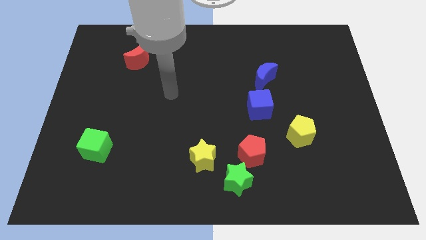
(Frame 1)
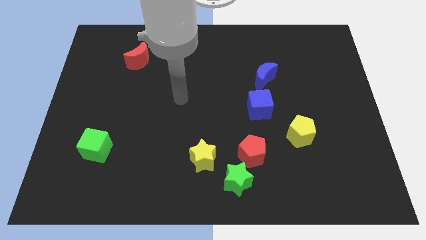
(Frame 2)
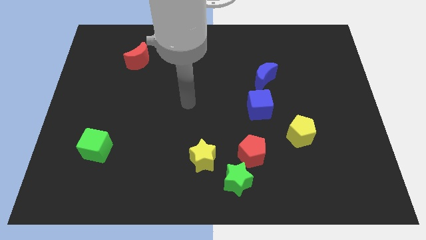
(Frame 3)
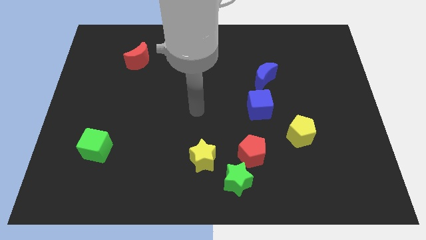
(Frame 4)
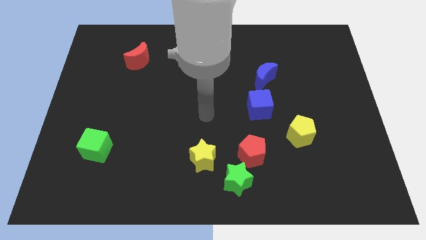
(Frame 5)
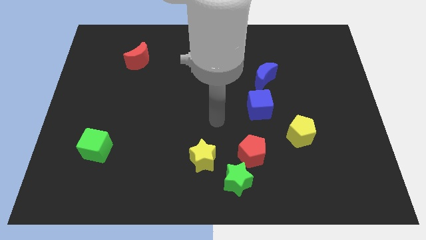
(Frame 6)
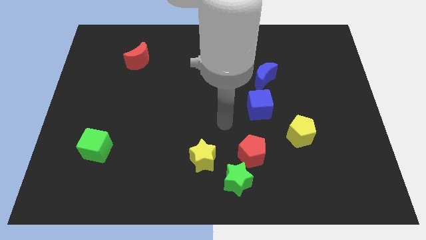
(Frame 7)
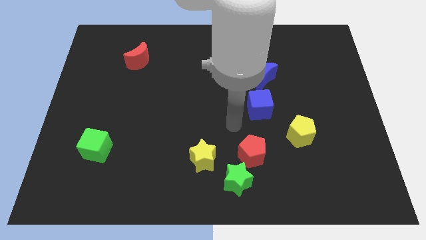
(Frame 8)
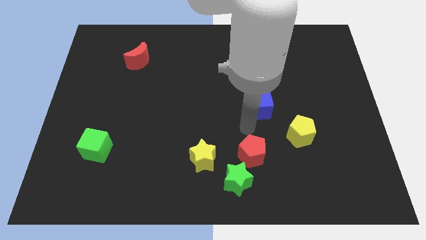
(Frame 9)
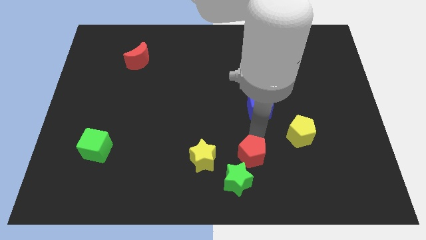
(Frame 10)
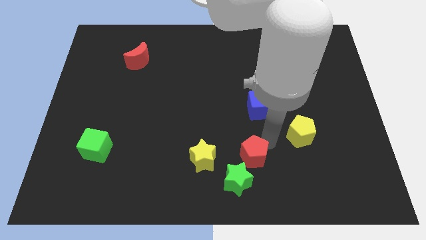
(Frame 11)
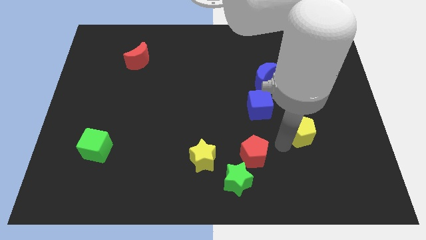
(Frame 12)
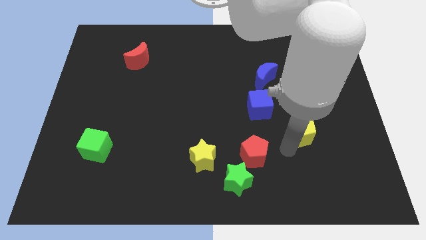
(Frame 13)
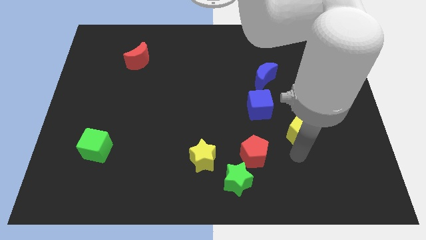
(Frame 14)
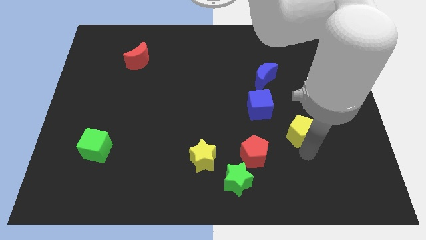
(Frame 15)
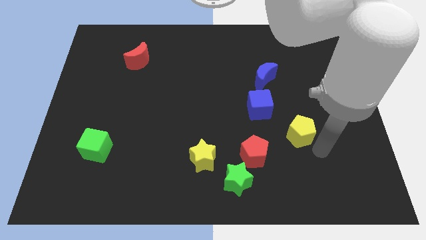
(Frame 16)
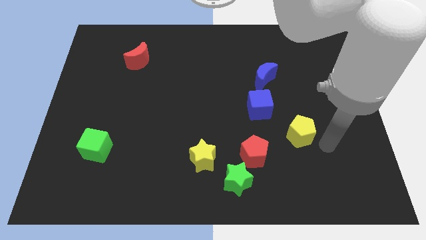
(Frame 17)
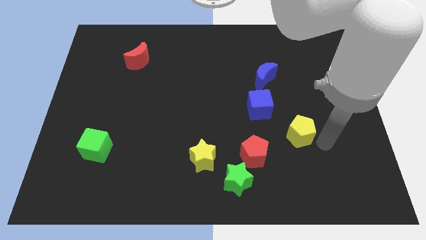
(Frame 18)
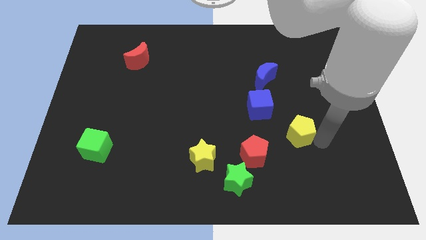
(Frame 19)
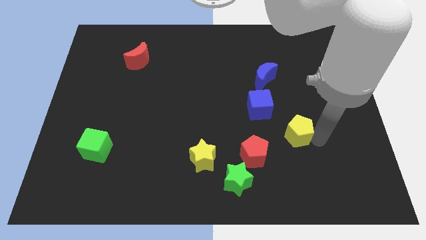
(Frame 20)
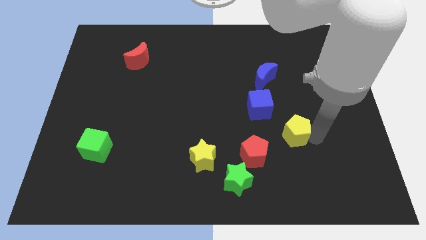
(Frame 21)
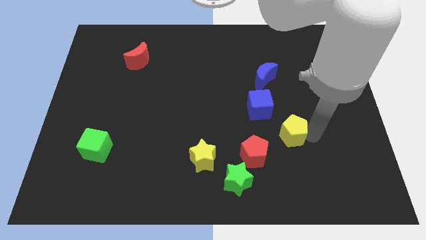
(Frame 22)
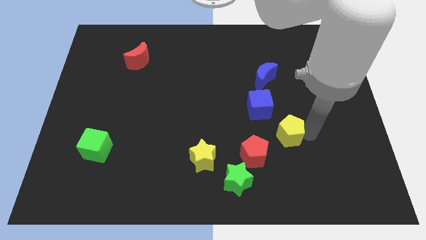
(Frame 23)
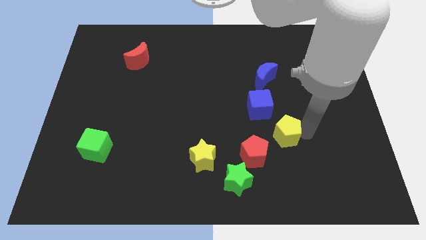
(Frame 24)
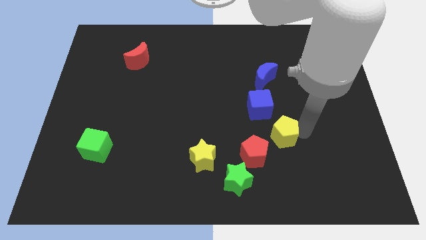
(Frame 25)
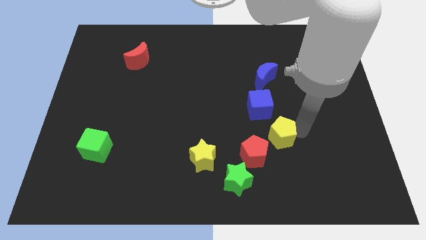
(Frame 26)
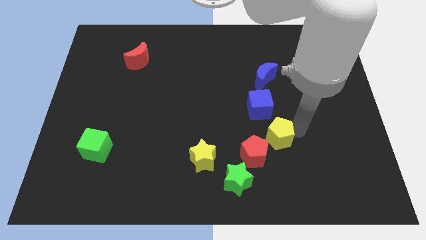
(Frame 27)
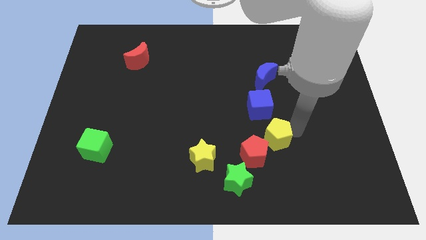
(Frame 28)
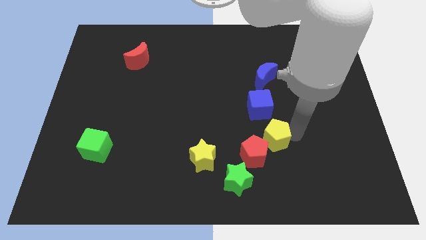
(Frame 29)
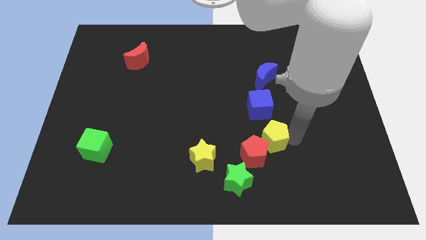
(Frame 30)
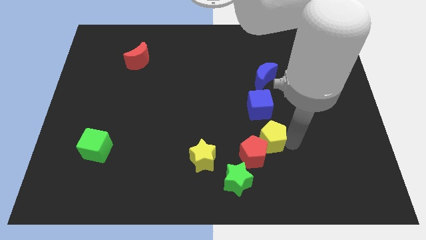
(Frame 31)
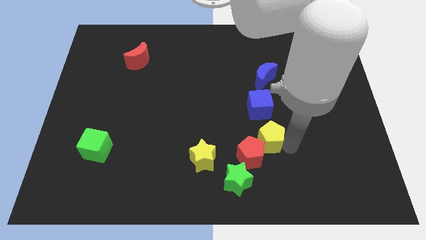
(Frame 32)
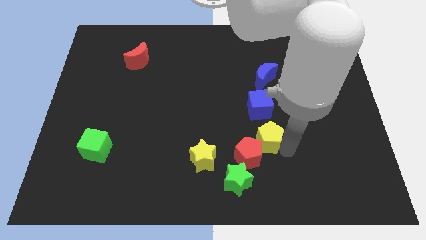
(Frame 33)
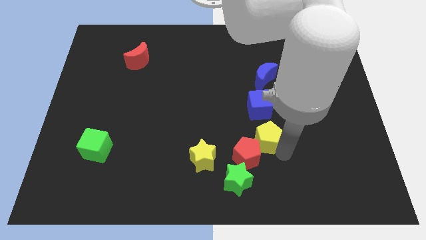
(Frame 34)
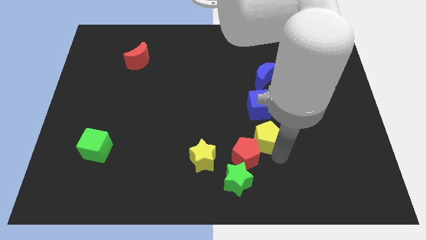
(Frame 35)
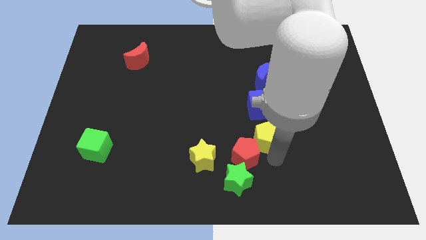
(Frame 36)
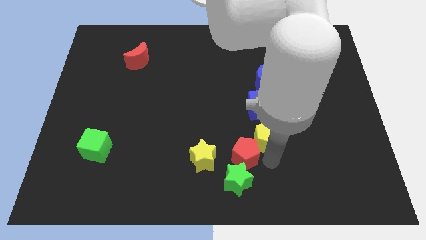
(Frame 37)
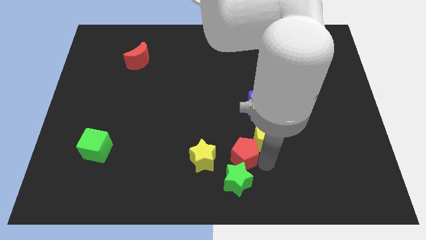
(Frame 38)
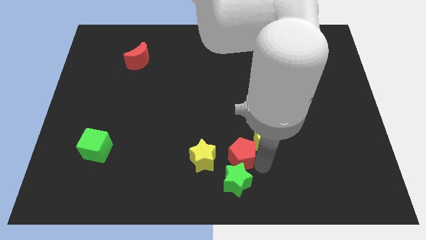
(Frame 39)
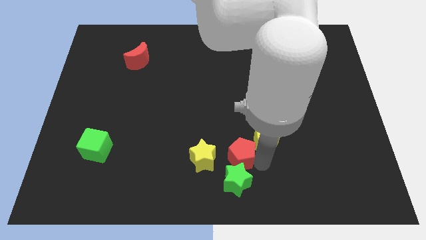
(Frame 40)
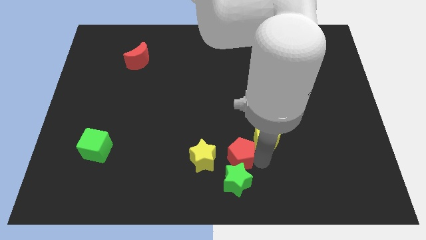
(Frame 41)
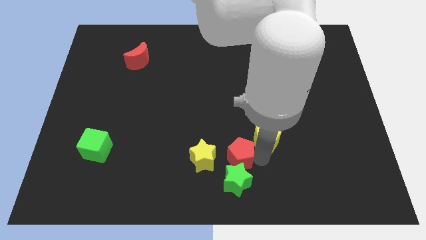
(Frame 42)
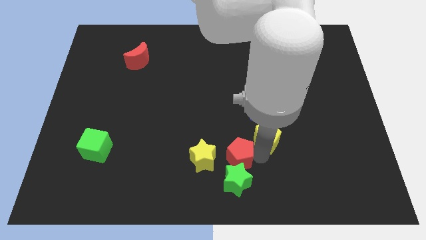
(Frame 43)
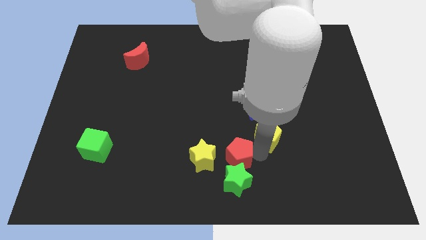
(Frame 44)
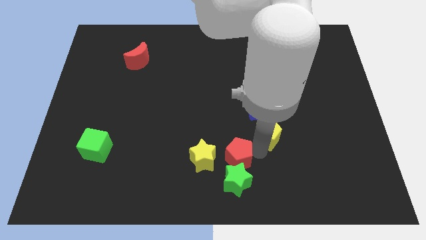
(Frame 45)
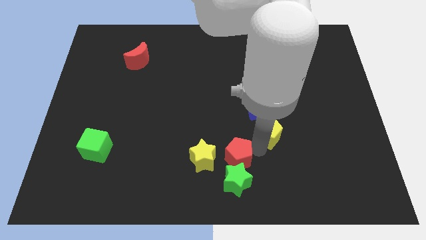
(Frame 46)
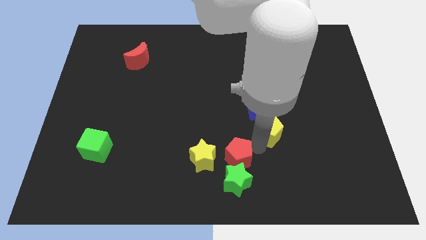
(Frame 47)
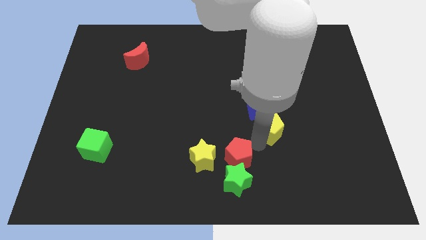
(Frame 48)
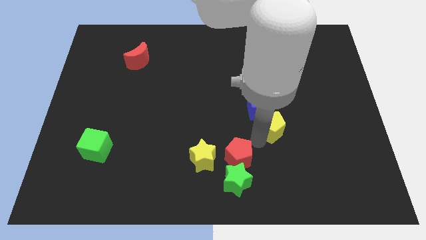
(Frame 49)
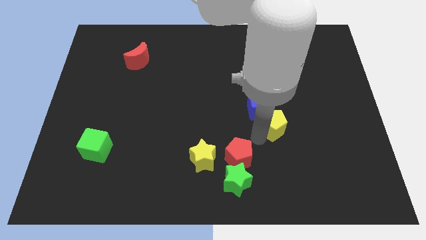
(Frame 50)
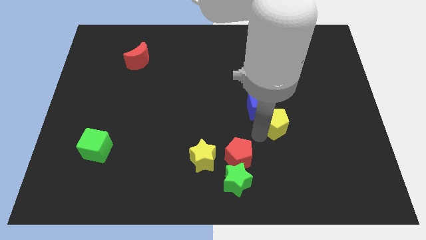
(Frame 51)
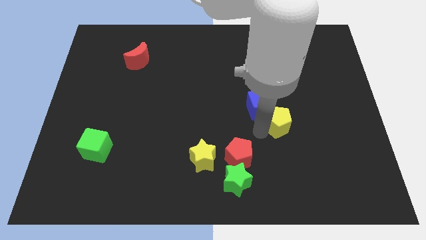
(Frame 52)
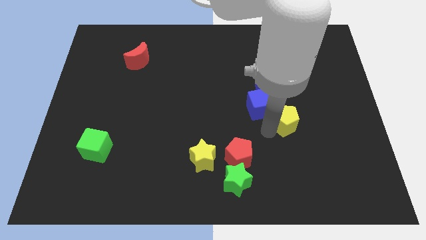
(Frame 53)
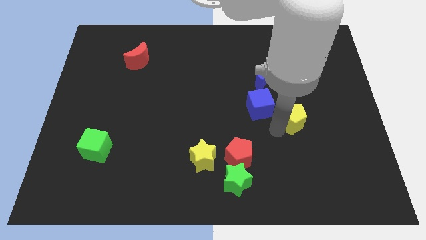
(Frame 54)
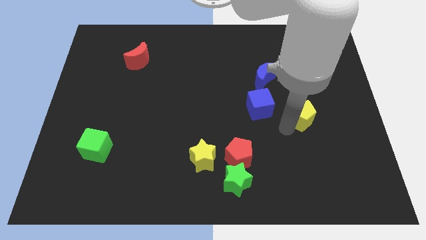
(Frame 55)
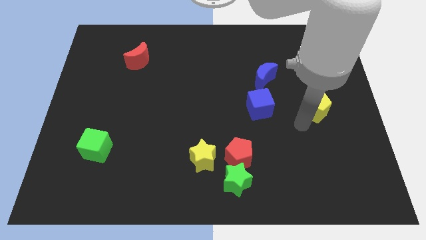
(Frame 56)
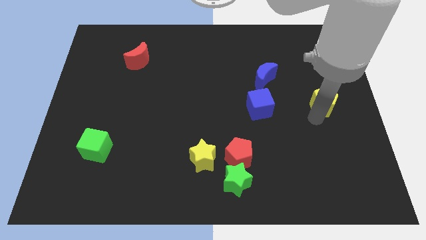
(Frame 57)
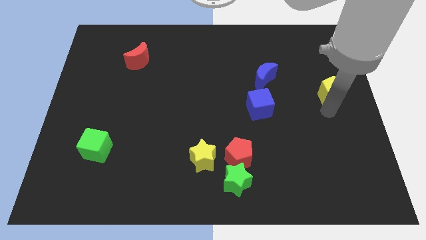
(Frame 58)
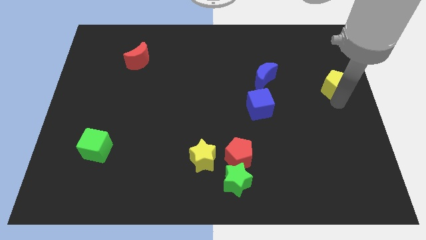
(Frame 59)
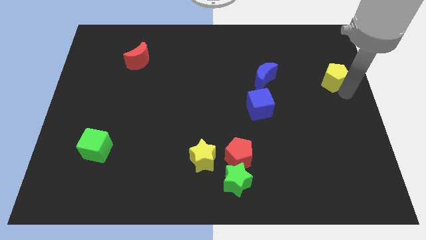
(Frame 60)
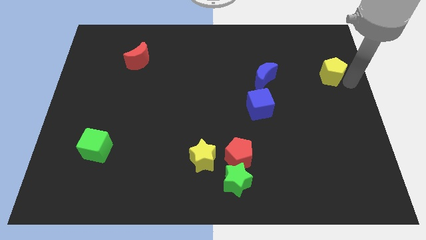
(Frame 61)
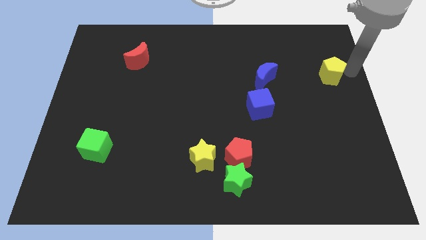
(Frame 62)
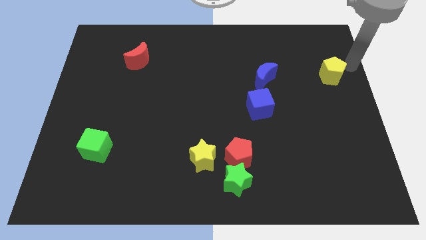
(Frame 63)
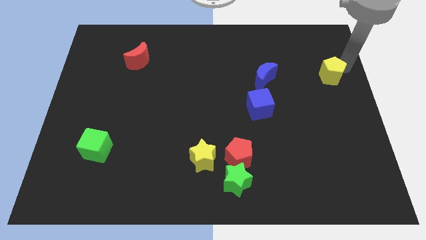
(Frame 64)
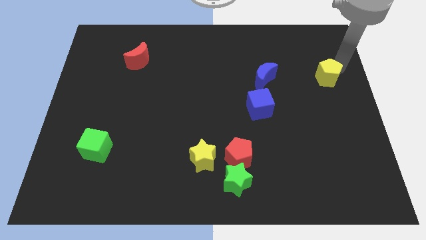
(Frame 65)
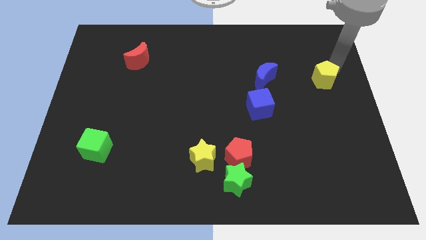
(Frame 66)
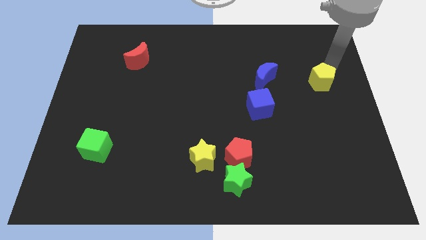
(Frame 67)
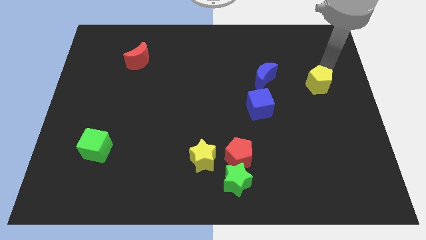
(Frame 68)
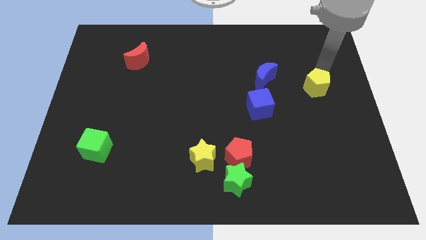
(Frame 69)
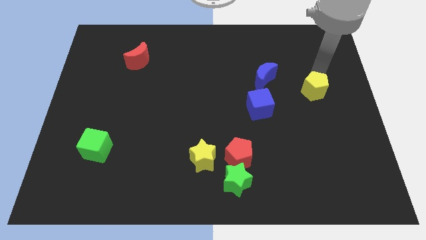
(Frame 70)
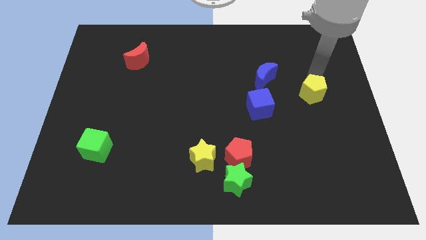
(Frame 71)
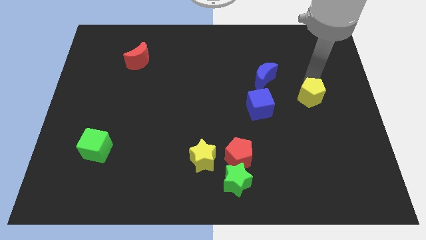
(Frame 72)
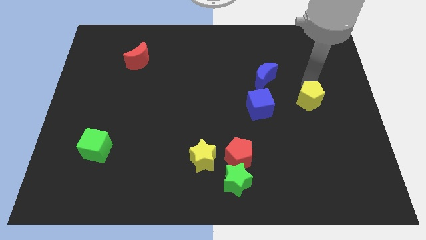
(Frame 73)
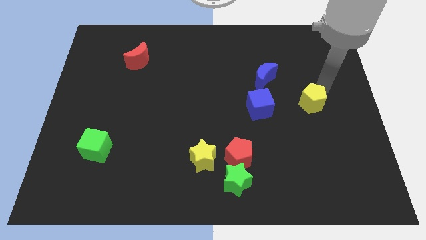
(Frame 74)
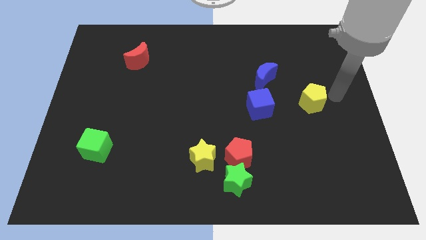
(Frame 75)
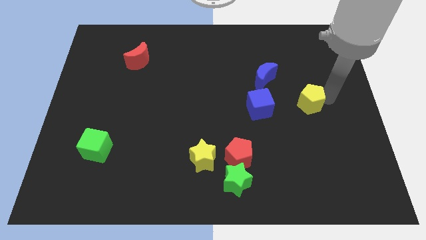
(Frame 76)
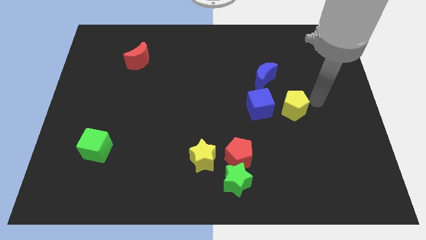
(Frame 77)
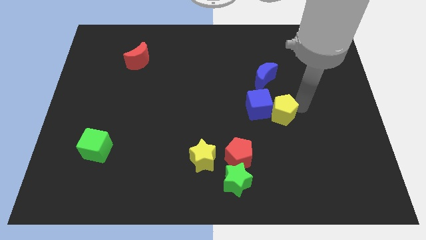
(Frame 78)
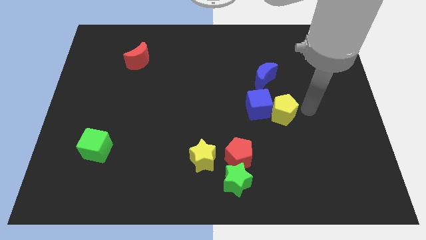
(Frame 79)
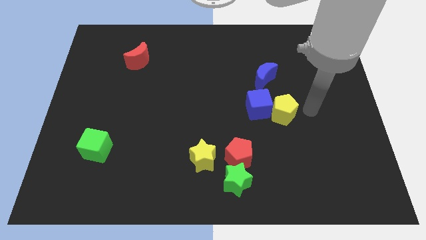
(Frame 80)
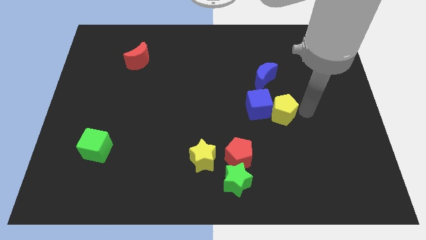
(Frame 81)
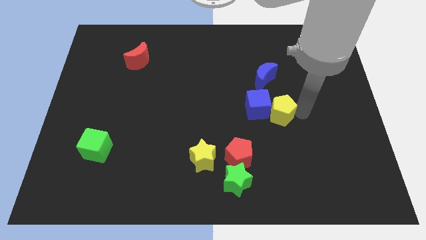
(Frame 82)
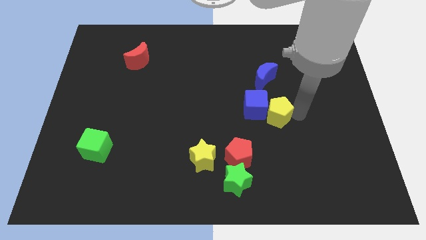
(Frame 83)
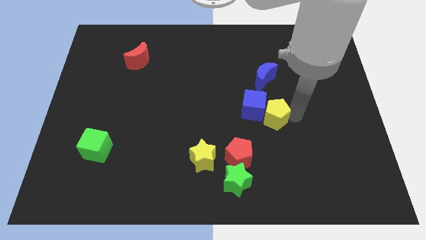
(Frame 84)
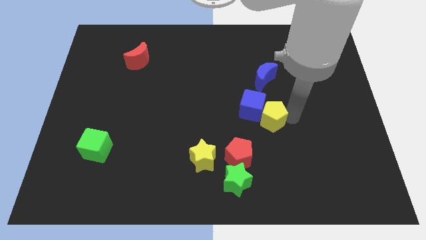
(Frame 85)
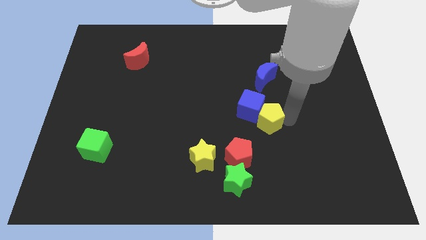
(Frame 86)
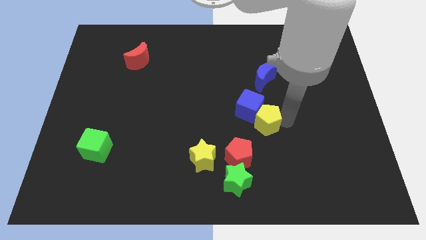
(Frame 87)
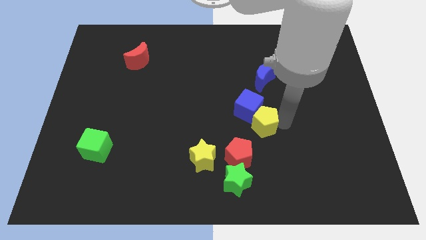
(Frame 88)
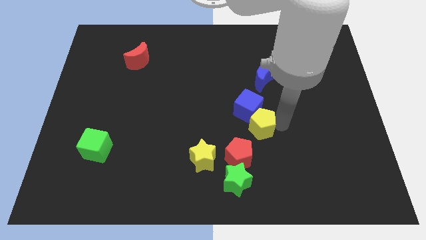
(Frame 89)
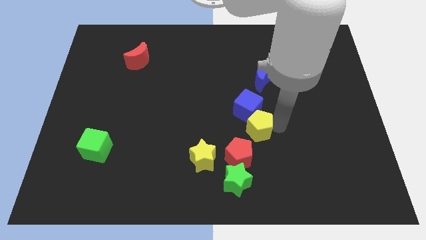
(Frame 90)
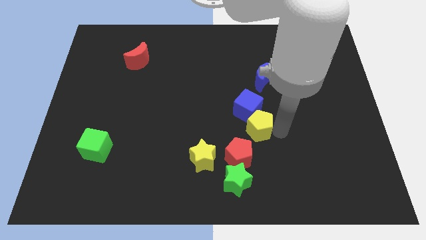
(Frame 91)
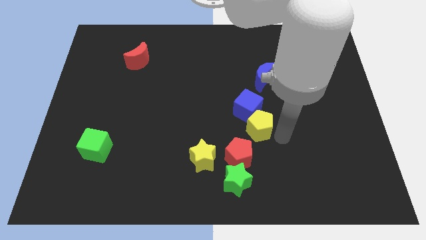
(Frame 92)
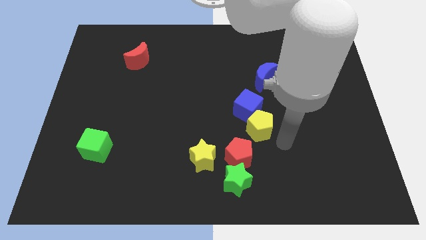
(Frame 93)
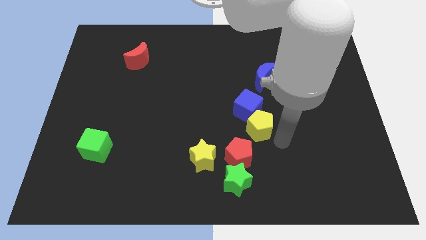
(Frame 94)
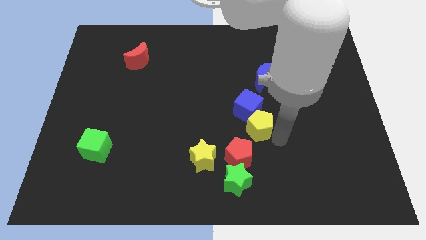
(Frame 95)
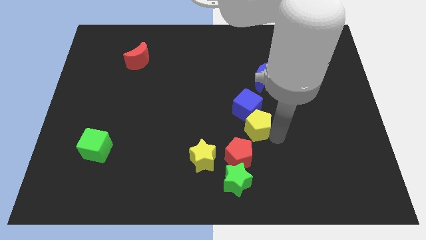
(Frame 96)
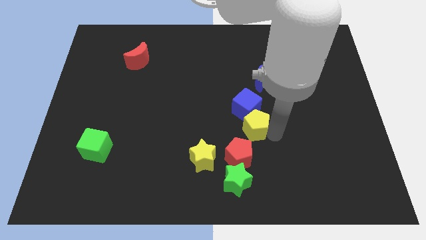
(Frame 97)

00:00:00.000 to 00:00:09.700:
move the yellow pentagon to the center
